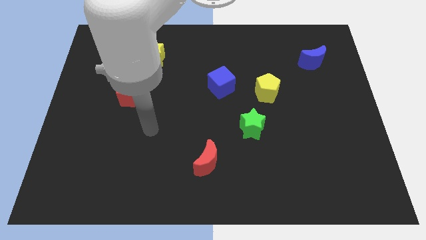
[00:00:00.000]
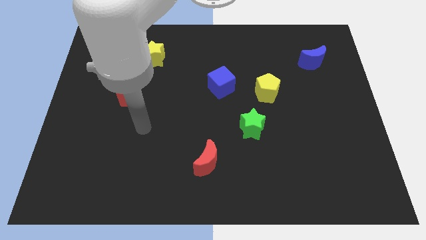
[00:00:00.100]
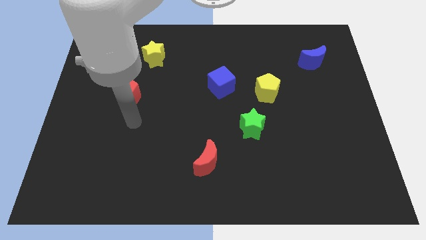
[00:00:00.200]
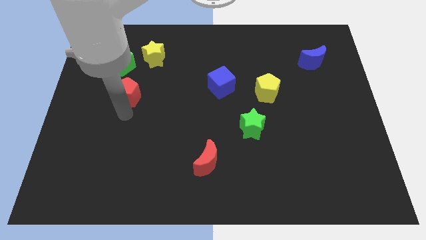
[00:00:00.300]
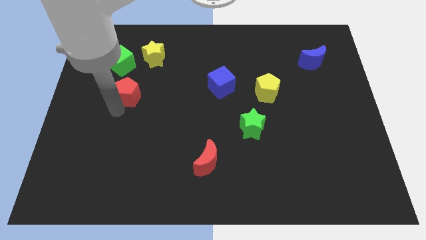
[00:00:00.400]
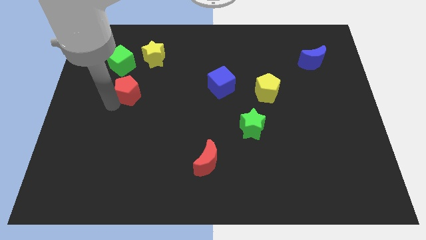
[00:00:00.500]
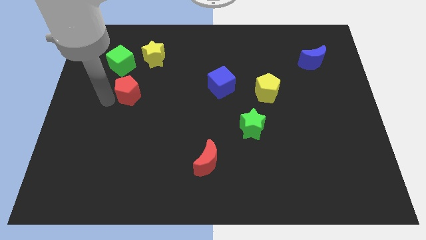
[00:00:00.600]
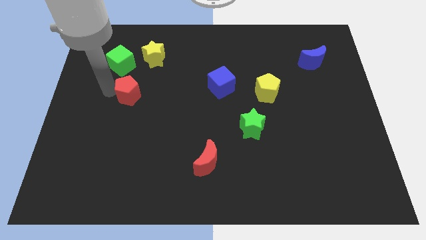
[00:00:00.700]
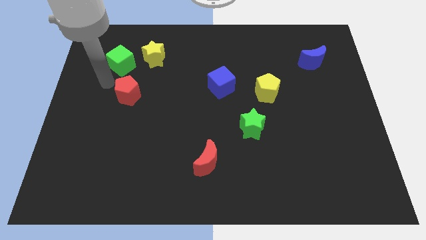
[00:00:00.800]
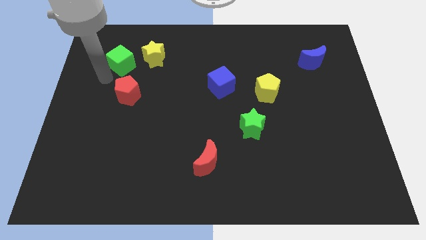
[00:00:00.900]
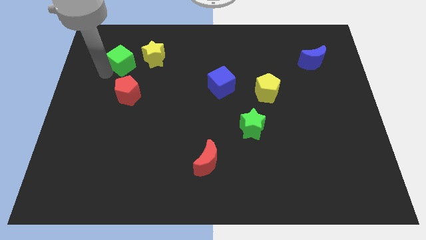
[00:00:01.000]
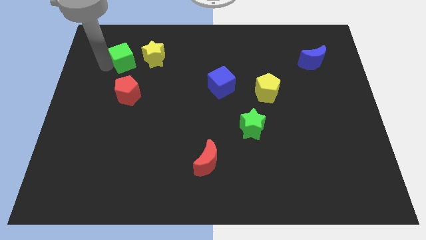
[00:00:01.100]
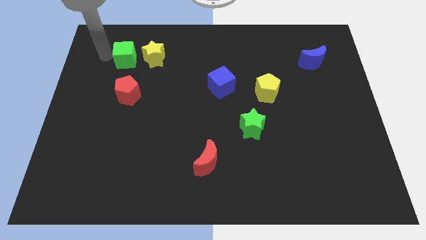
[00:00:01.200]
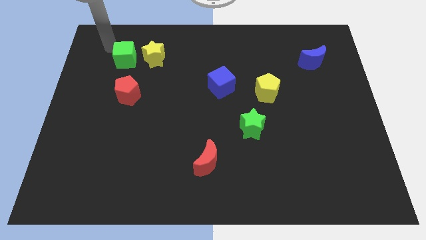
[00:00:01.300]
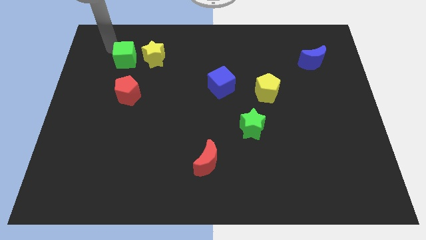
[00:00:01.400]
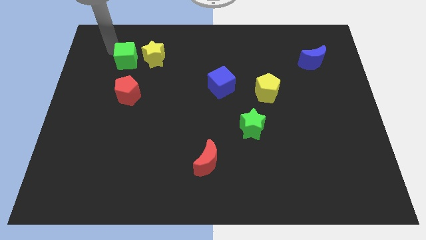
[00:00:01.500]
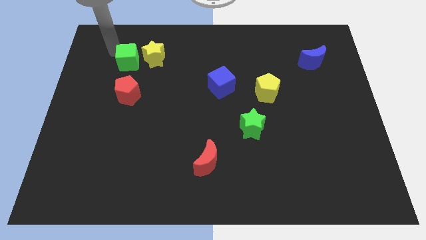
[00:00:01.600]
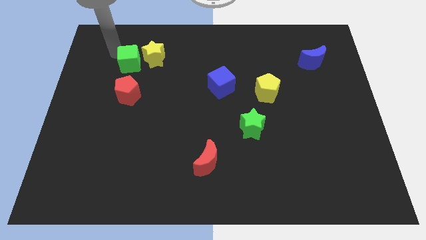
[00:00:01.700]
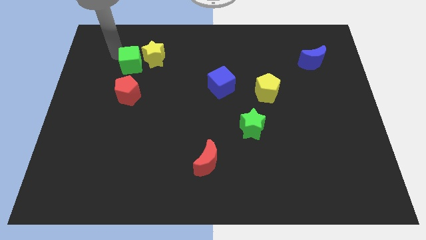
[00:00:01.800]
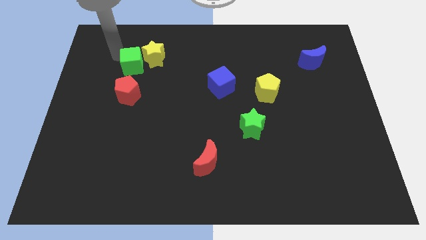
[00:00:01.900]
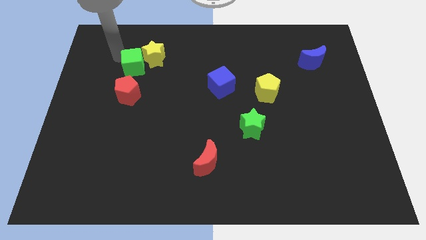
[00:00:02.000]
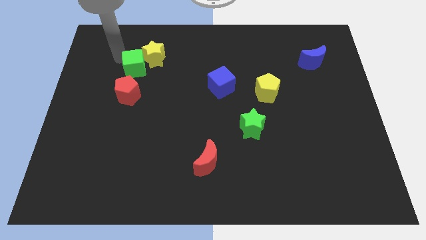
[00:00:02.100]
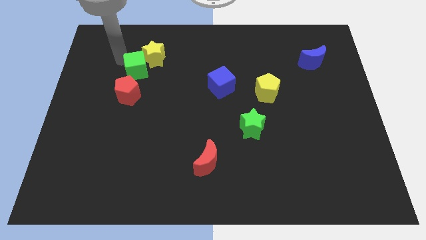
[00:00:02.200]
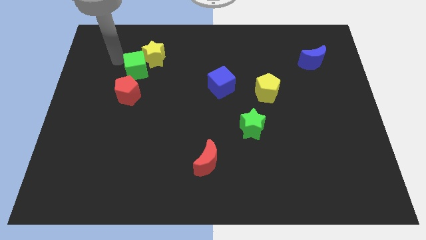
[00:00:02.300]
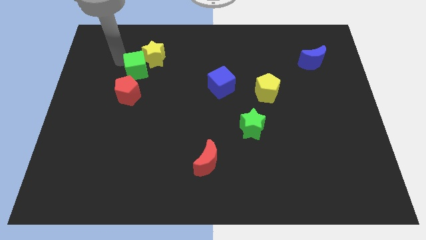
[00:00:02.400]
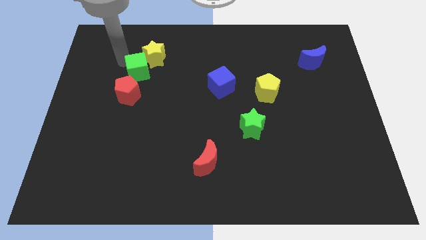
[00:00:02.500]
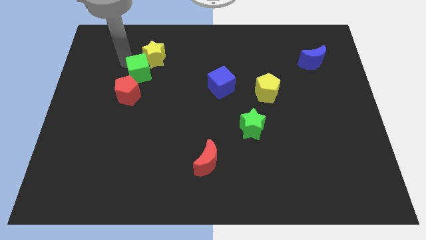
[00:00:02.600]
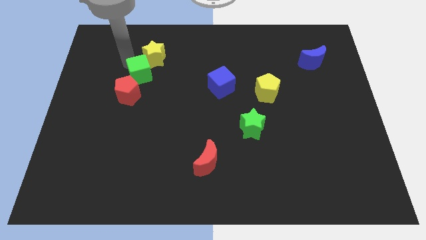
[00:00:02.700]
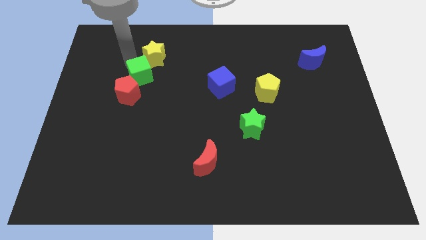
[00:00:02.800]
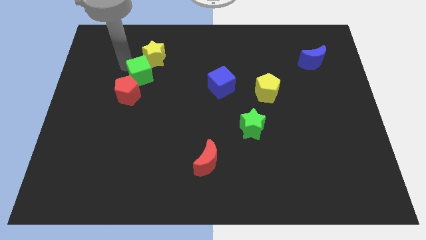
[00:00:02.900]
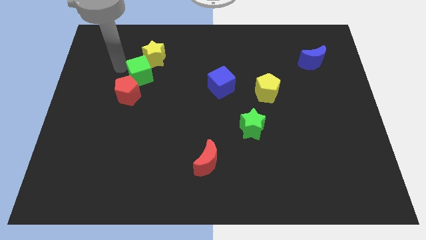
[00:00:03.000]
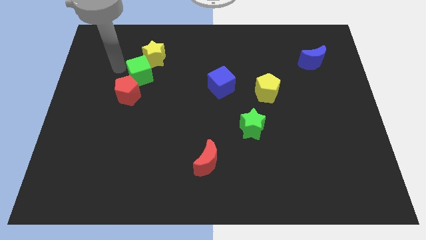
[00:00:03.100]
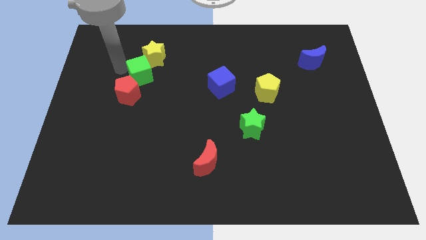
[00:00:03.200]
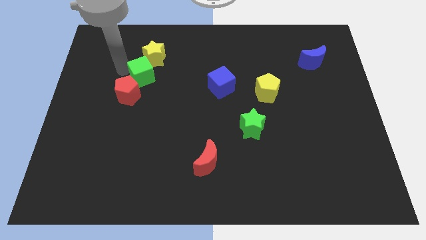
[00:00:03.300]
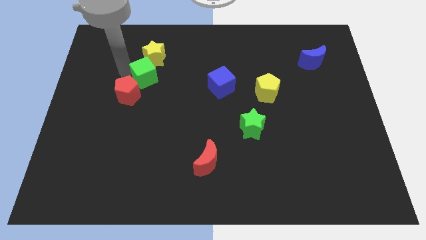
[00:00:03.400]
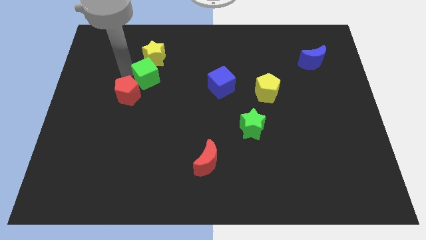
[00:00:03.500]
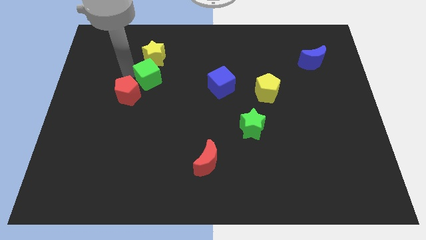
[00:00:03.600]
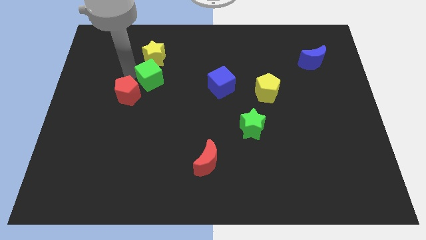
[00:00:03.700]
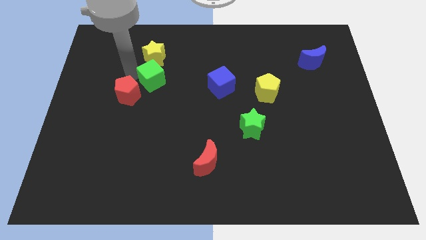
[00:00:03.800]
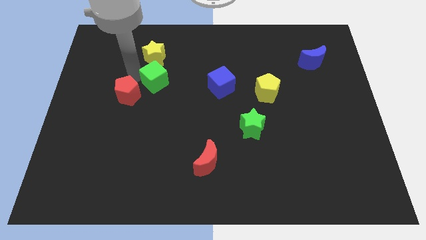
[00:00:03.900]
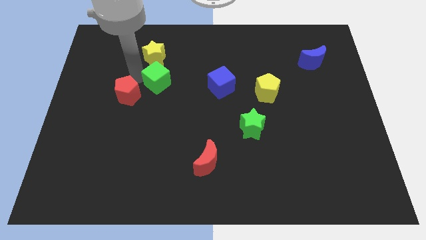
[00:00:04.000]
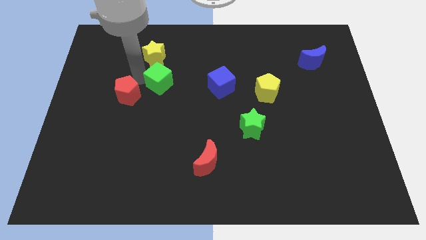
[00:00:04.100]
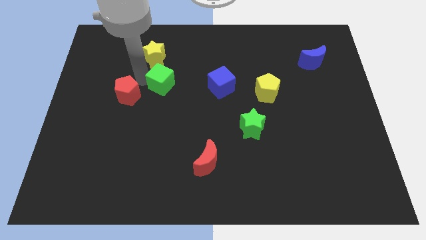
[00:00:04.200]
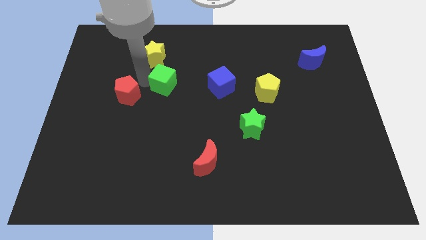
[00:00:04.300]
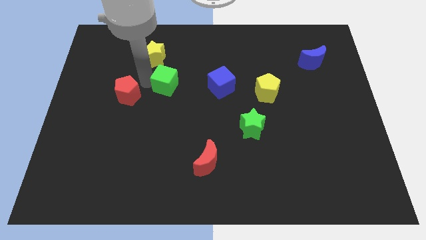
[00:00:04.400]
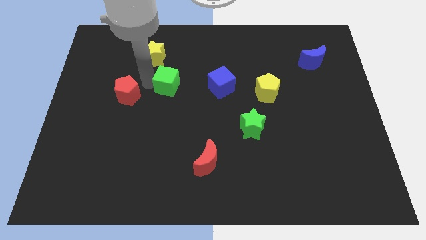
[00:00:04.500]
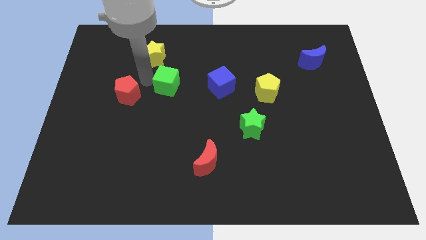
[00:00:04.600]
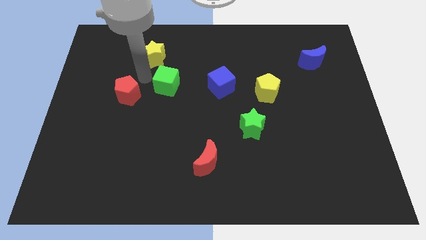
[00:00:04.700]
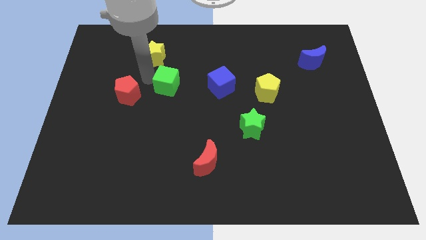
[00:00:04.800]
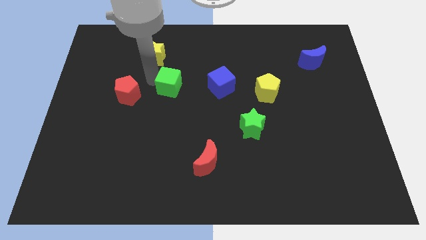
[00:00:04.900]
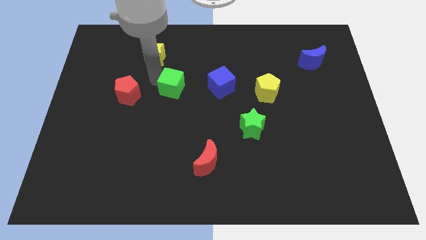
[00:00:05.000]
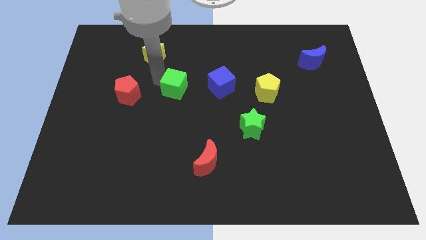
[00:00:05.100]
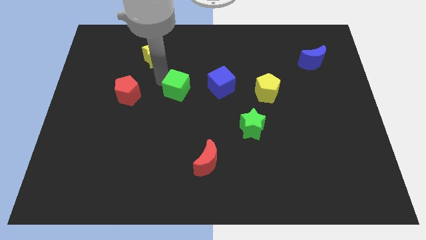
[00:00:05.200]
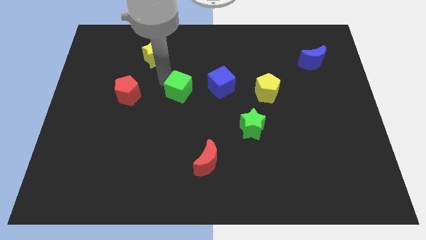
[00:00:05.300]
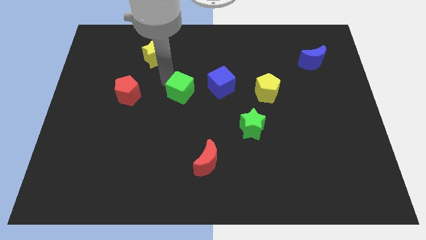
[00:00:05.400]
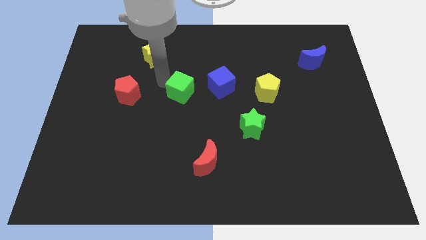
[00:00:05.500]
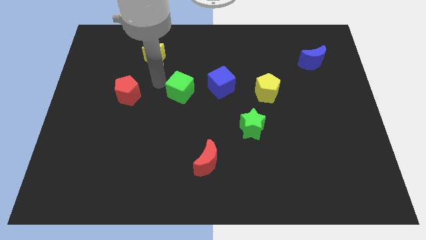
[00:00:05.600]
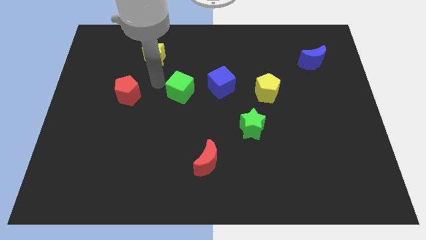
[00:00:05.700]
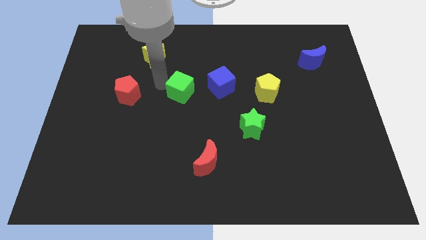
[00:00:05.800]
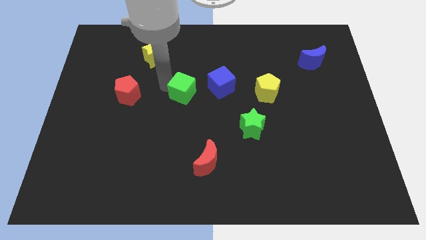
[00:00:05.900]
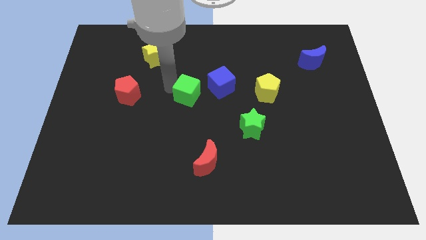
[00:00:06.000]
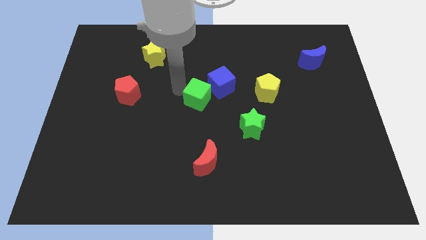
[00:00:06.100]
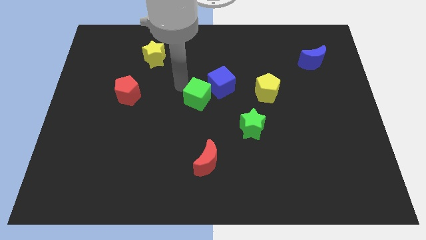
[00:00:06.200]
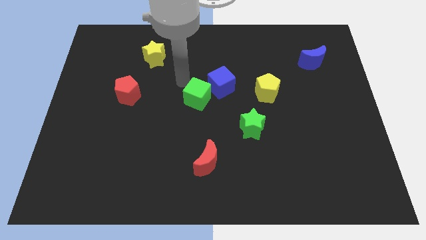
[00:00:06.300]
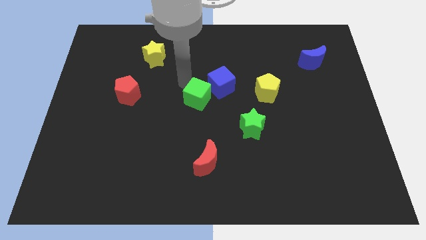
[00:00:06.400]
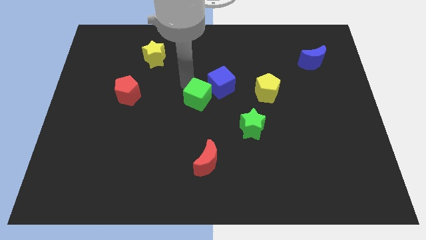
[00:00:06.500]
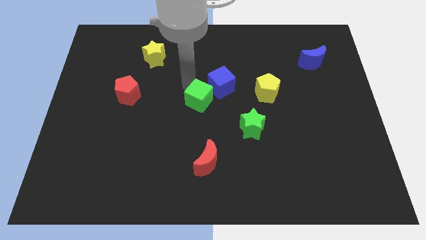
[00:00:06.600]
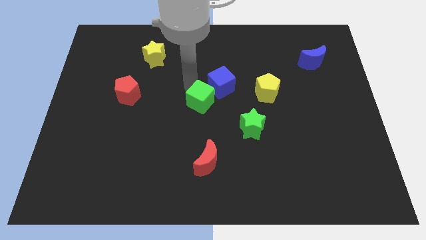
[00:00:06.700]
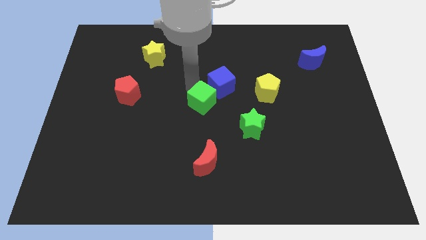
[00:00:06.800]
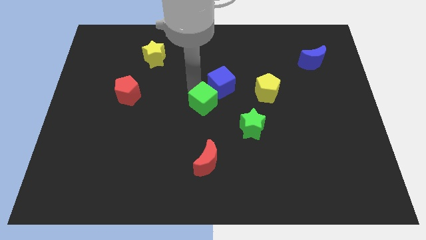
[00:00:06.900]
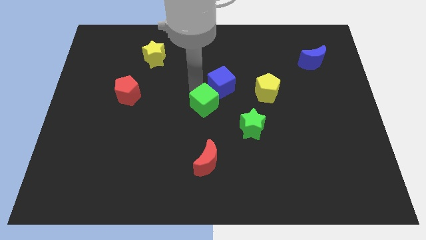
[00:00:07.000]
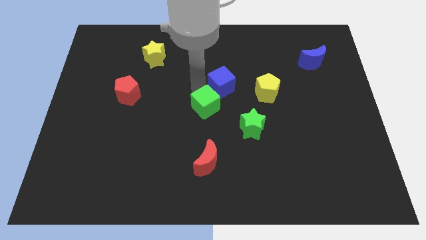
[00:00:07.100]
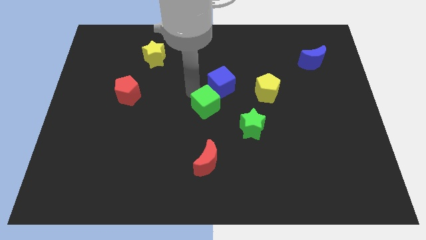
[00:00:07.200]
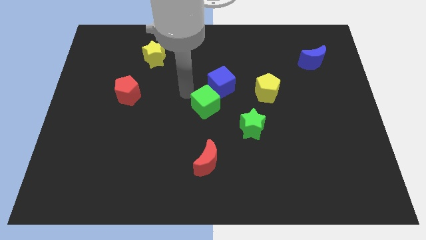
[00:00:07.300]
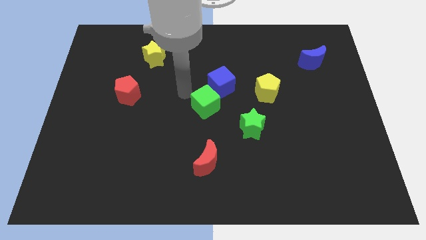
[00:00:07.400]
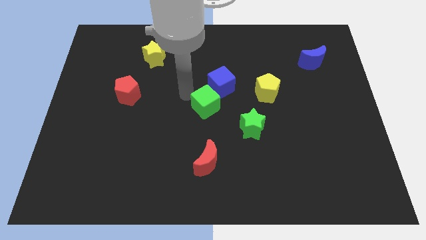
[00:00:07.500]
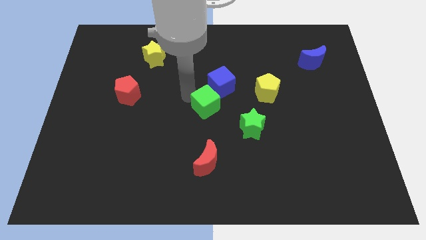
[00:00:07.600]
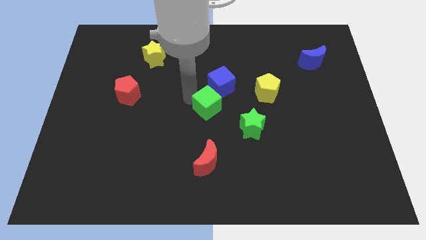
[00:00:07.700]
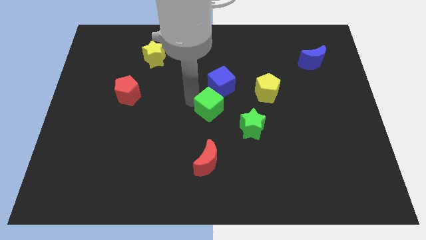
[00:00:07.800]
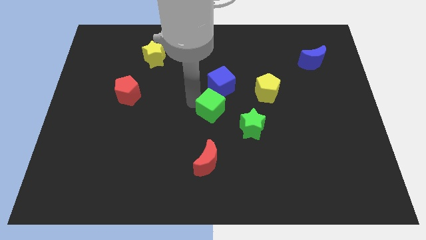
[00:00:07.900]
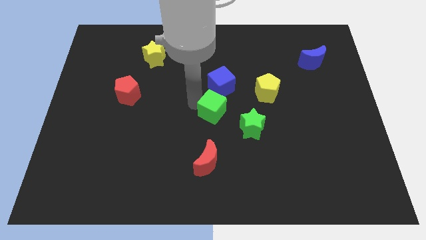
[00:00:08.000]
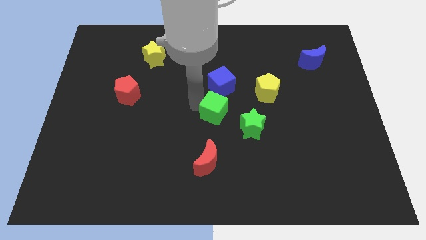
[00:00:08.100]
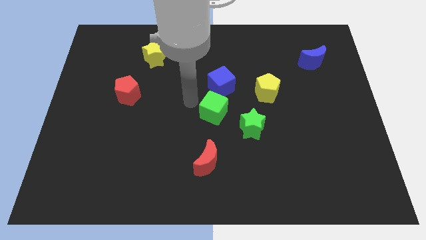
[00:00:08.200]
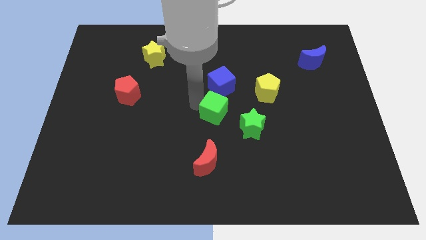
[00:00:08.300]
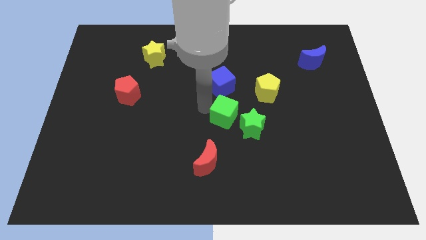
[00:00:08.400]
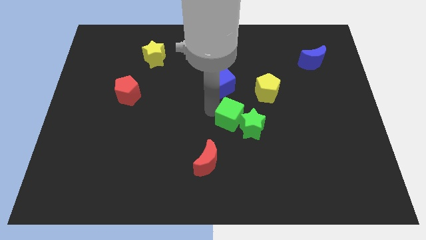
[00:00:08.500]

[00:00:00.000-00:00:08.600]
move the green cube to the green star
